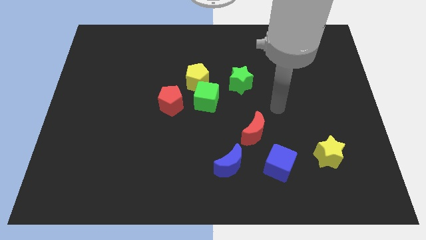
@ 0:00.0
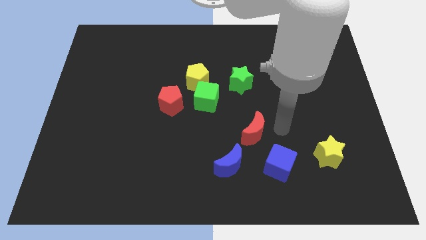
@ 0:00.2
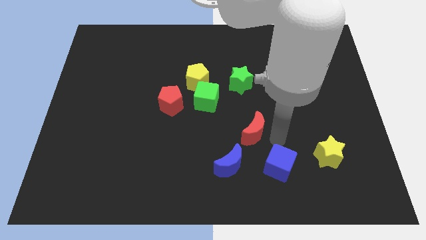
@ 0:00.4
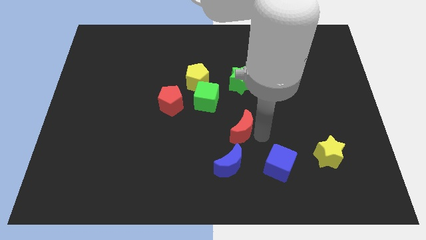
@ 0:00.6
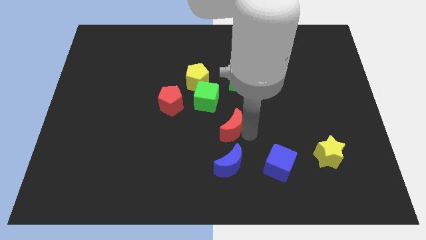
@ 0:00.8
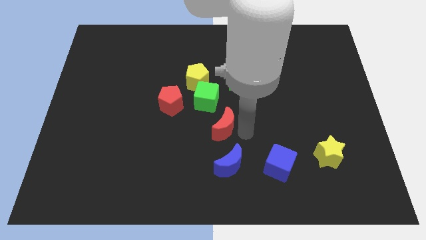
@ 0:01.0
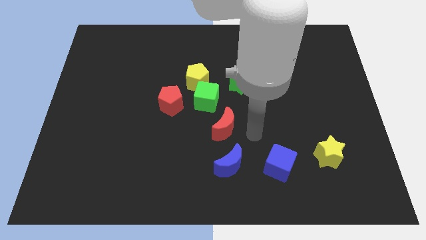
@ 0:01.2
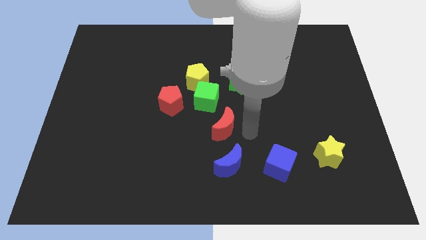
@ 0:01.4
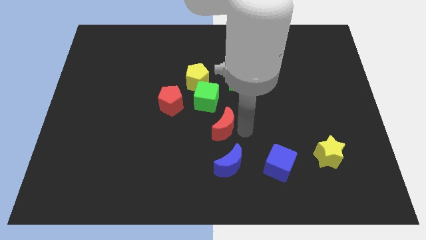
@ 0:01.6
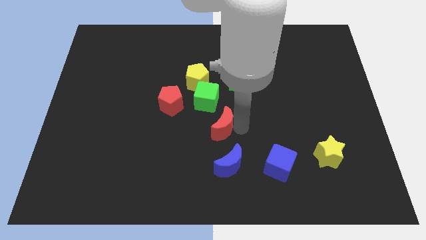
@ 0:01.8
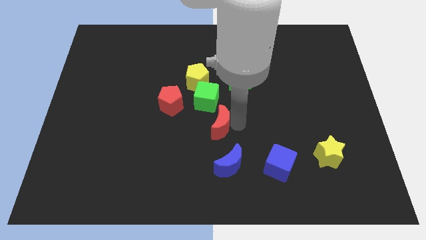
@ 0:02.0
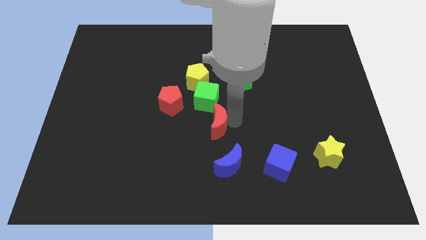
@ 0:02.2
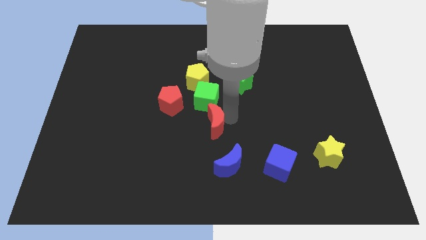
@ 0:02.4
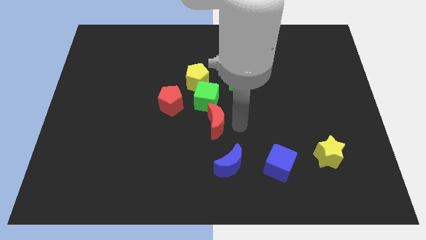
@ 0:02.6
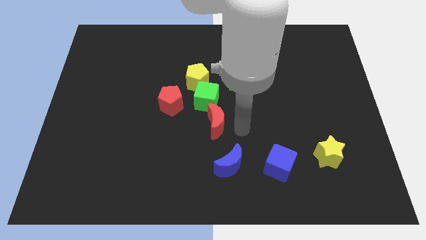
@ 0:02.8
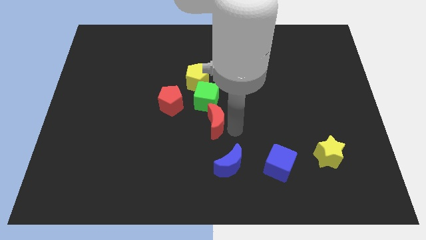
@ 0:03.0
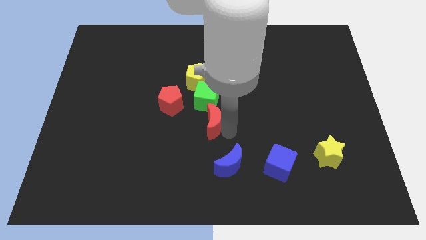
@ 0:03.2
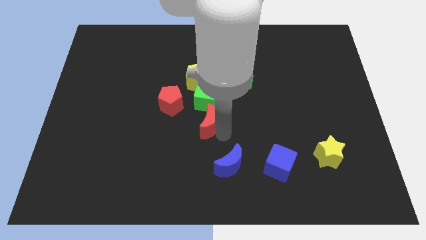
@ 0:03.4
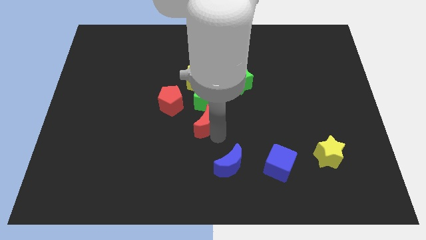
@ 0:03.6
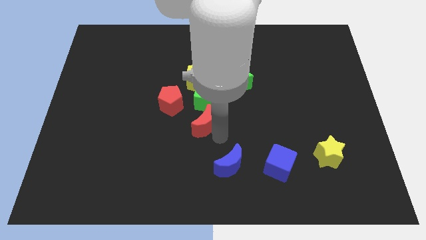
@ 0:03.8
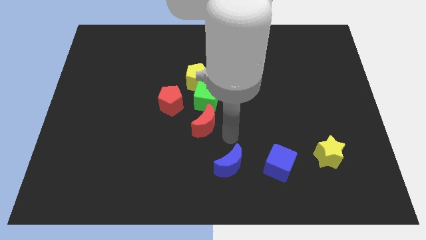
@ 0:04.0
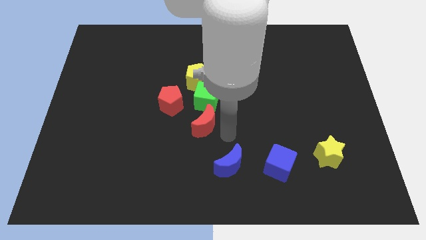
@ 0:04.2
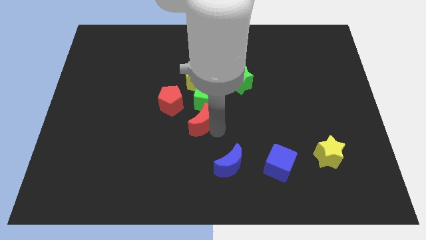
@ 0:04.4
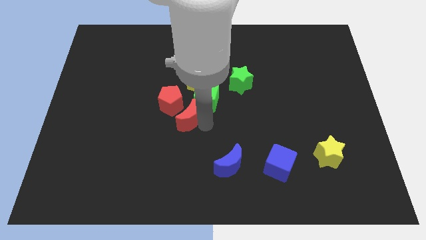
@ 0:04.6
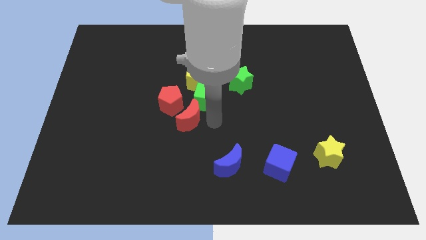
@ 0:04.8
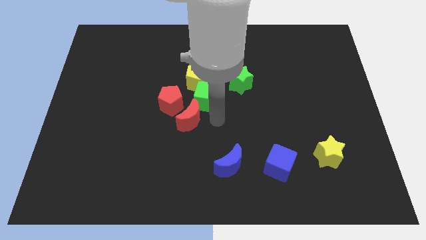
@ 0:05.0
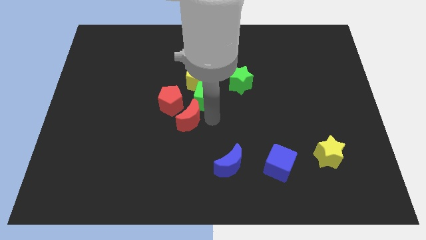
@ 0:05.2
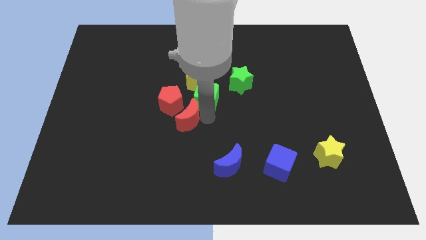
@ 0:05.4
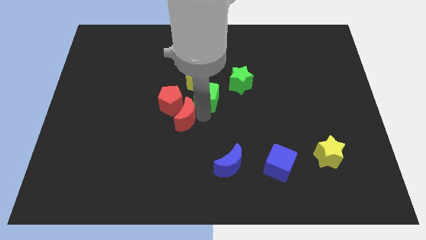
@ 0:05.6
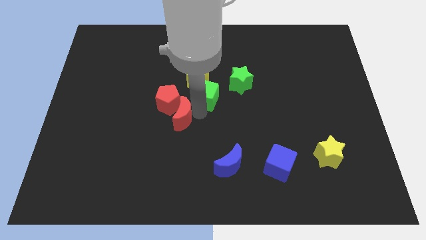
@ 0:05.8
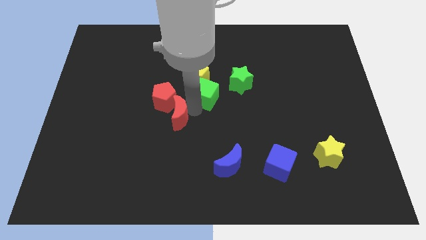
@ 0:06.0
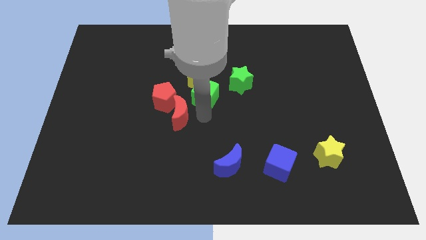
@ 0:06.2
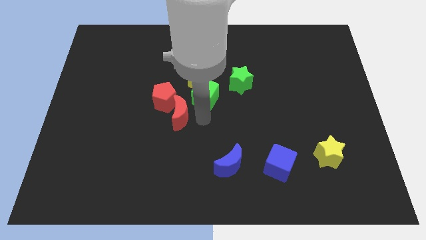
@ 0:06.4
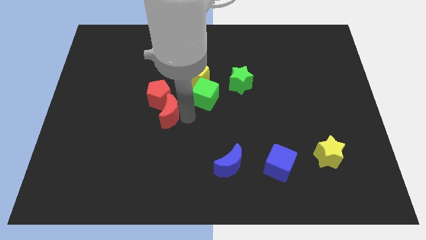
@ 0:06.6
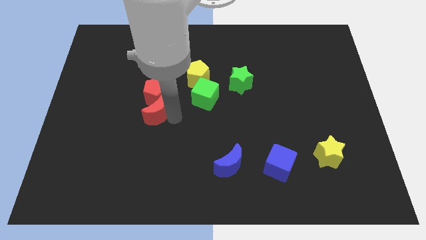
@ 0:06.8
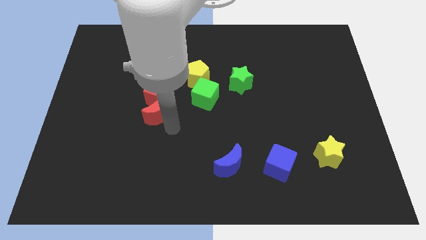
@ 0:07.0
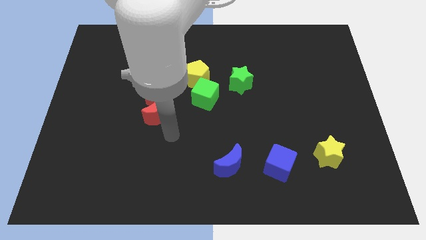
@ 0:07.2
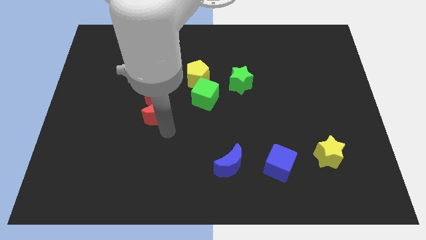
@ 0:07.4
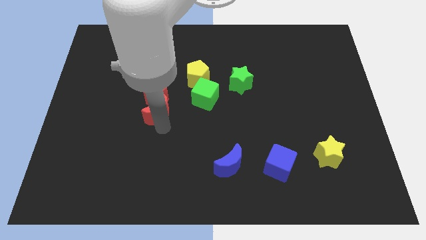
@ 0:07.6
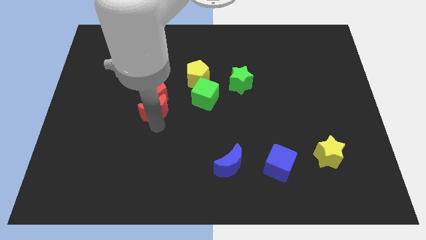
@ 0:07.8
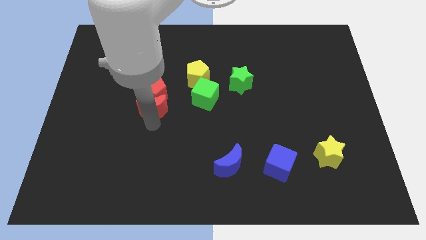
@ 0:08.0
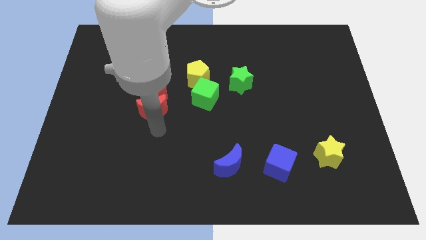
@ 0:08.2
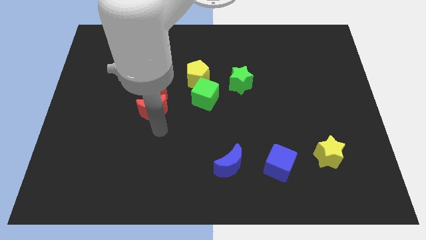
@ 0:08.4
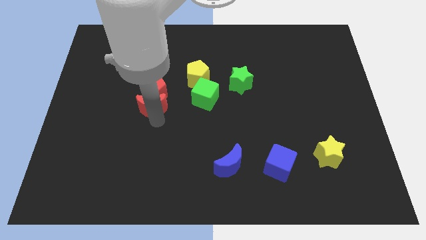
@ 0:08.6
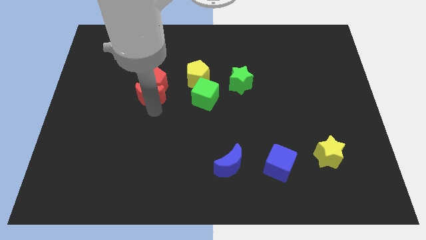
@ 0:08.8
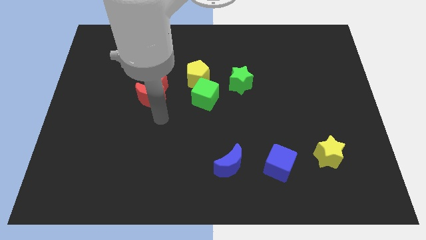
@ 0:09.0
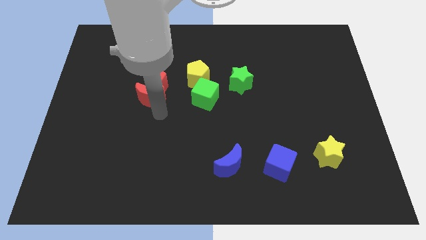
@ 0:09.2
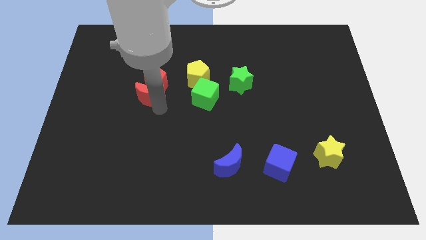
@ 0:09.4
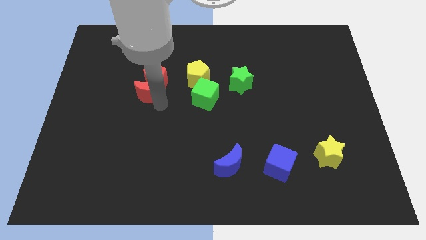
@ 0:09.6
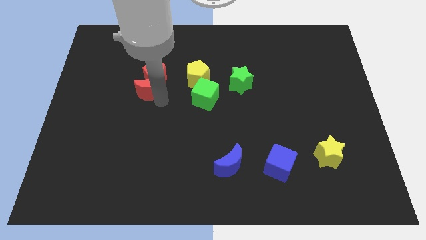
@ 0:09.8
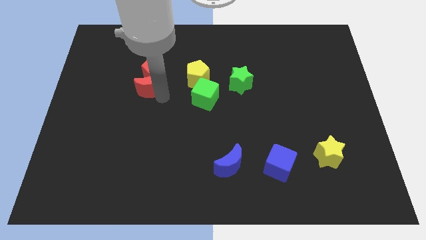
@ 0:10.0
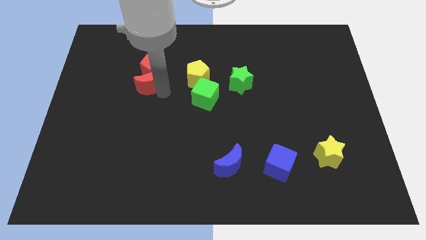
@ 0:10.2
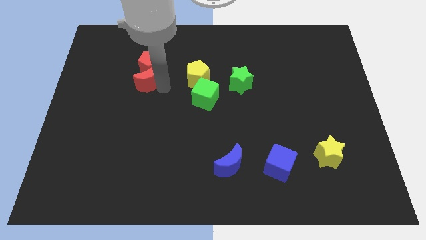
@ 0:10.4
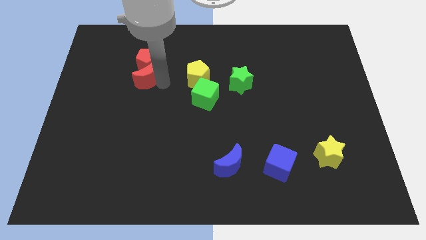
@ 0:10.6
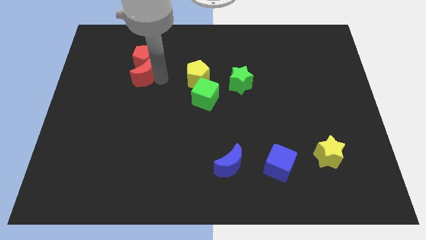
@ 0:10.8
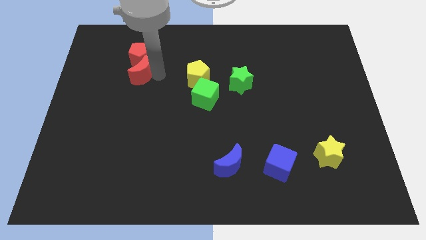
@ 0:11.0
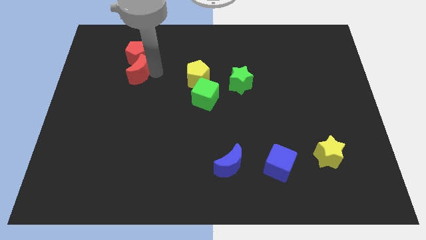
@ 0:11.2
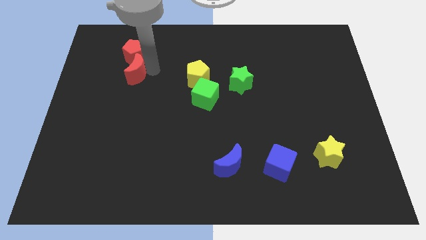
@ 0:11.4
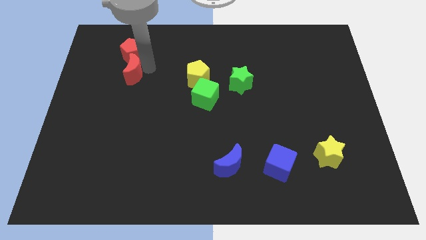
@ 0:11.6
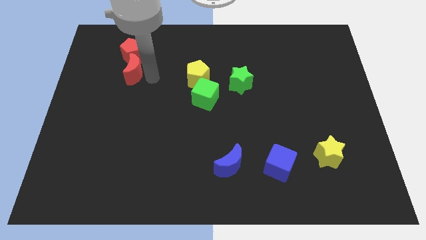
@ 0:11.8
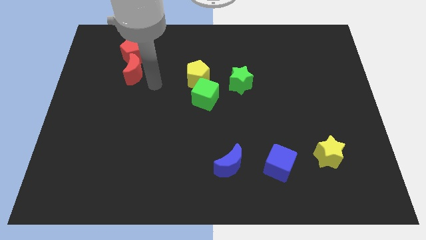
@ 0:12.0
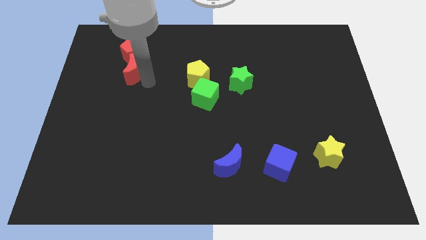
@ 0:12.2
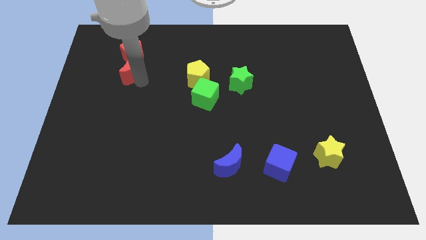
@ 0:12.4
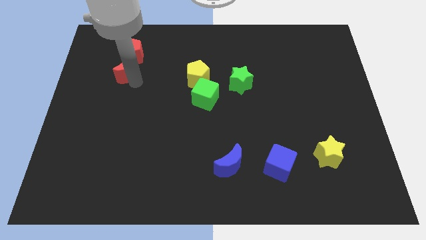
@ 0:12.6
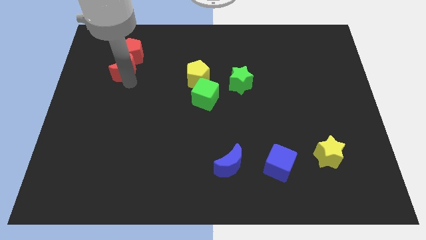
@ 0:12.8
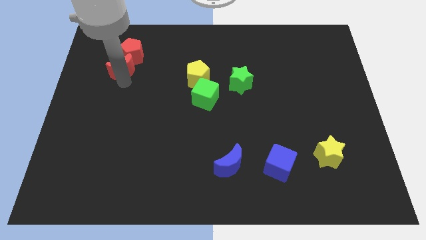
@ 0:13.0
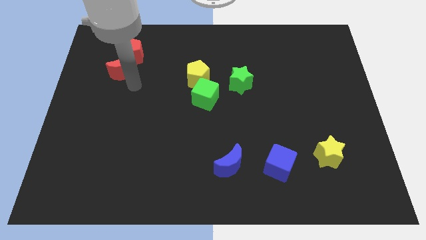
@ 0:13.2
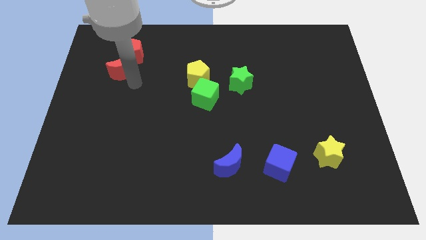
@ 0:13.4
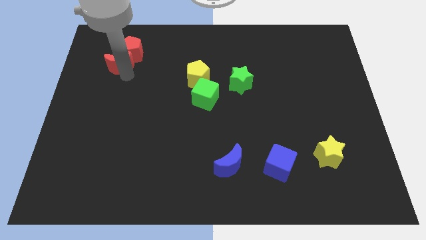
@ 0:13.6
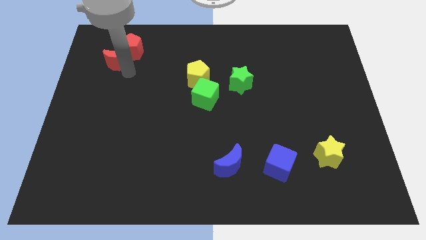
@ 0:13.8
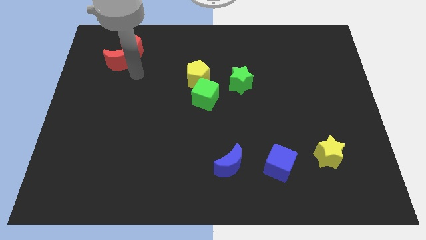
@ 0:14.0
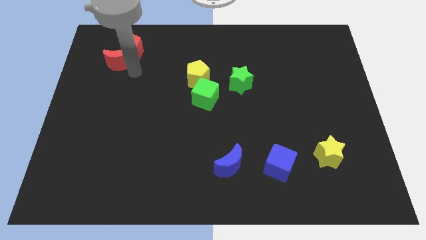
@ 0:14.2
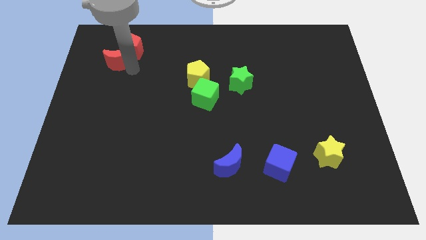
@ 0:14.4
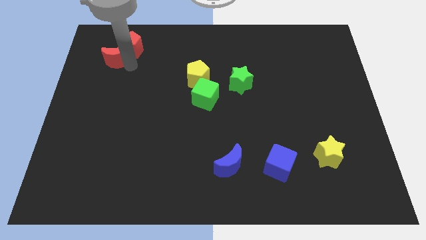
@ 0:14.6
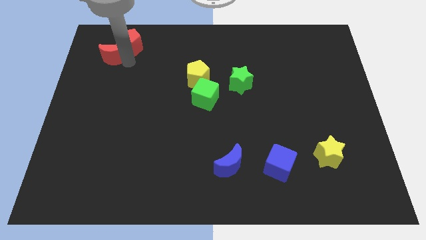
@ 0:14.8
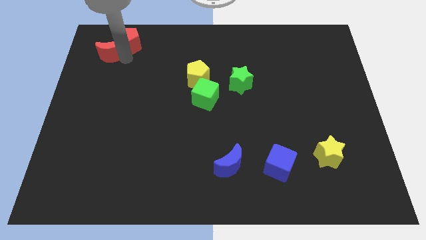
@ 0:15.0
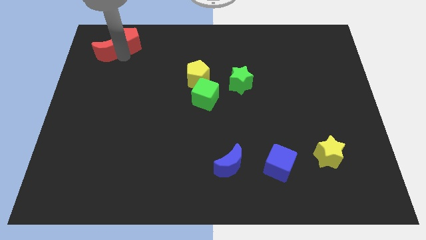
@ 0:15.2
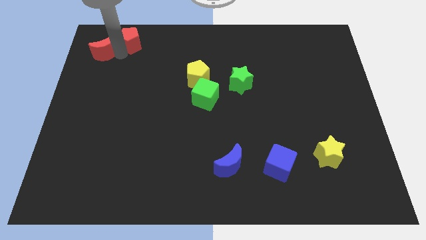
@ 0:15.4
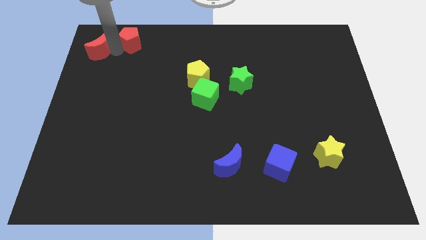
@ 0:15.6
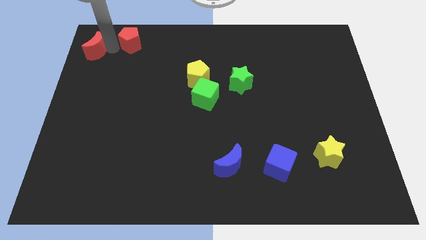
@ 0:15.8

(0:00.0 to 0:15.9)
move the red moon to the top left
